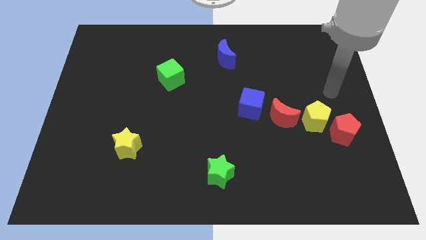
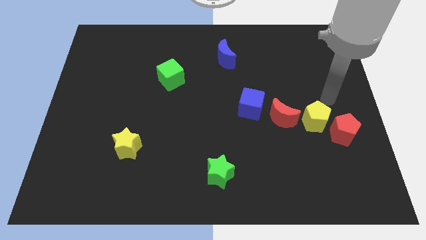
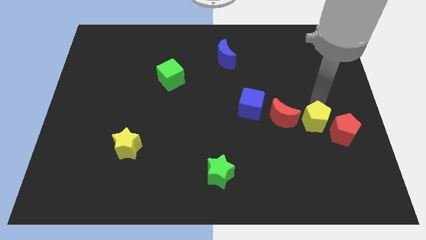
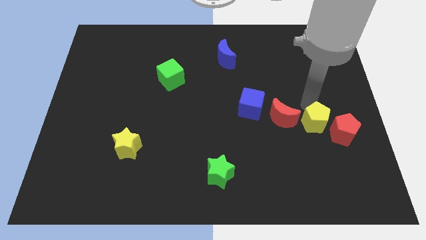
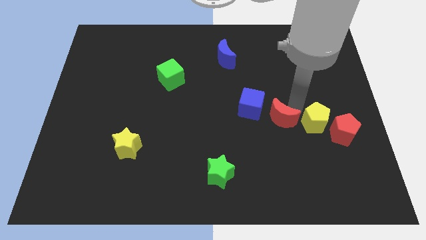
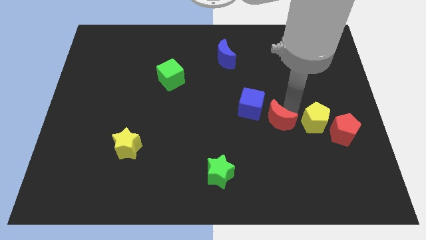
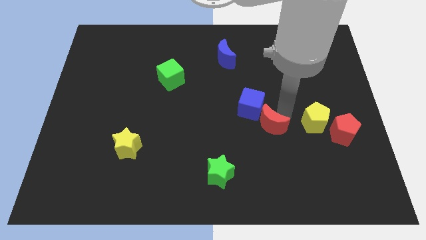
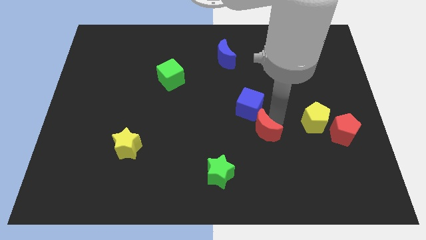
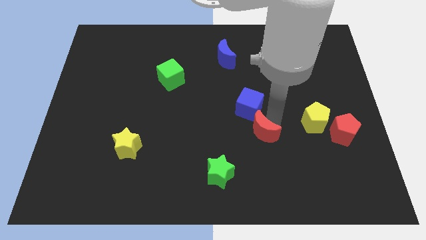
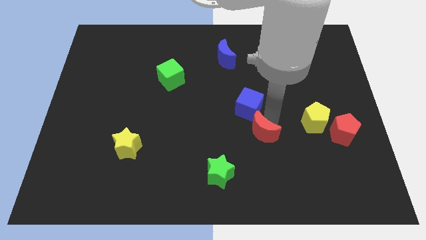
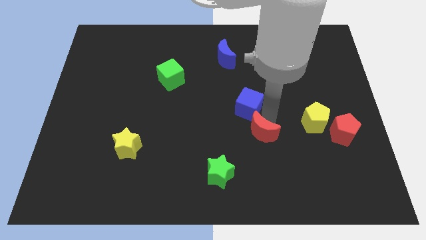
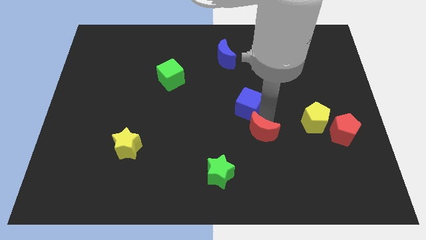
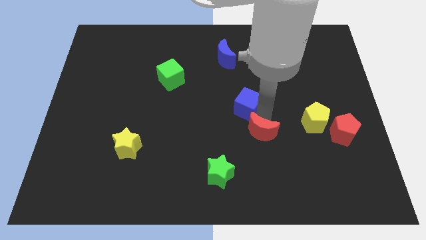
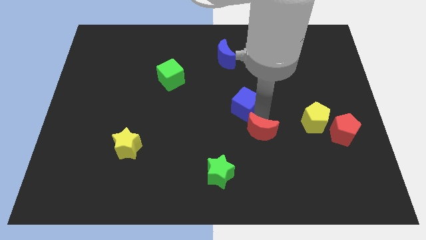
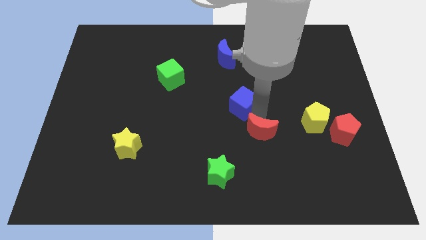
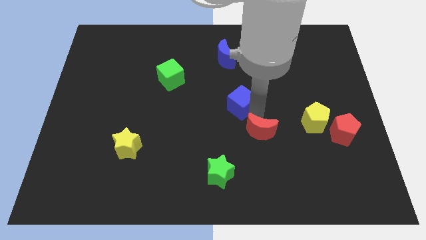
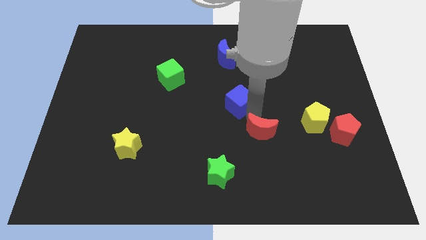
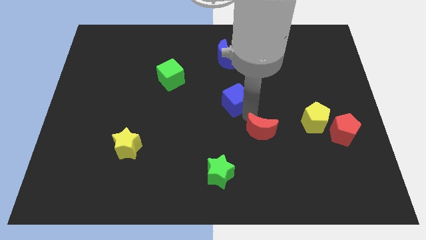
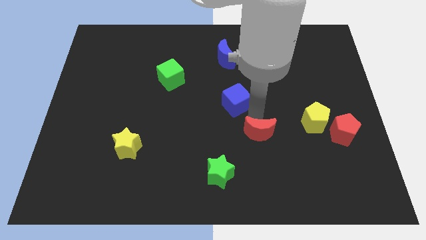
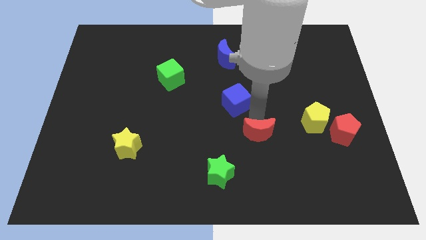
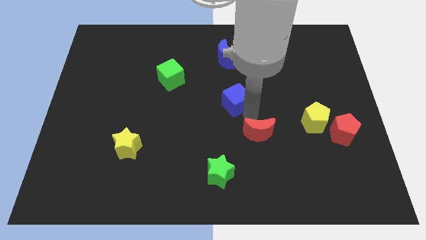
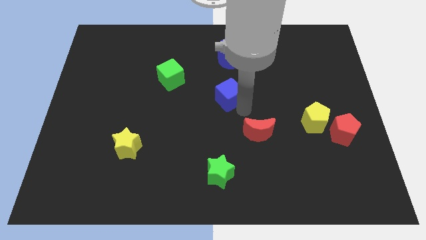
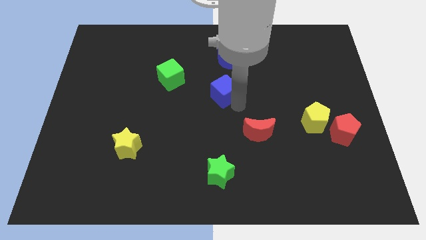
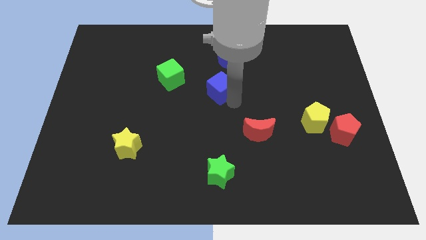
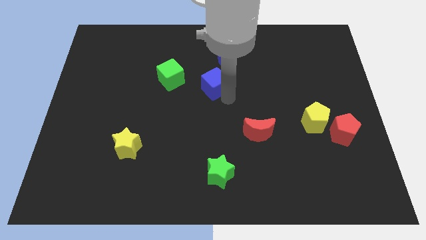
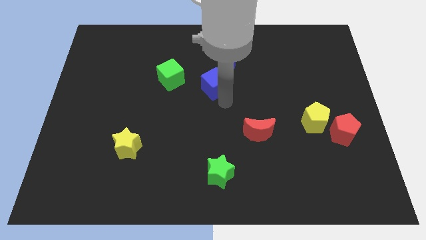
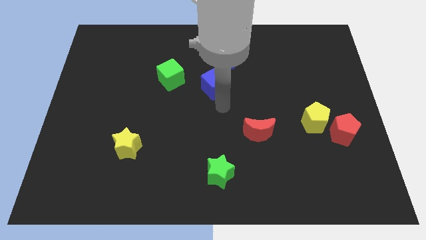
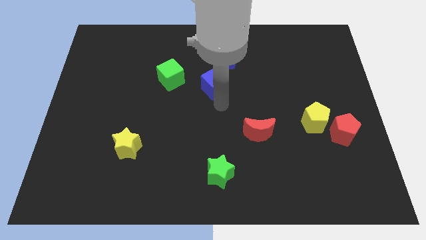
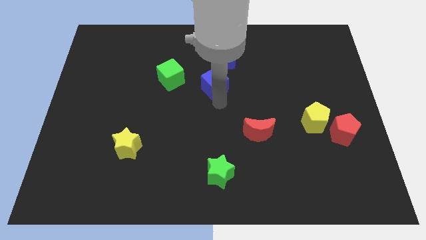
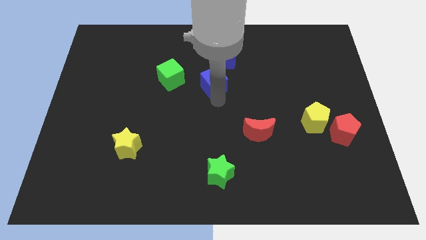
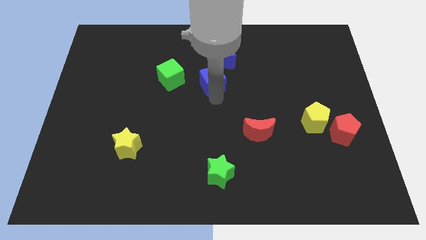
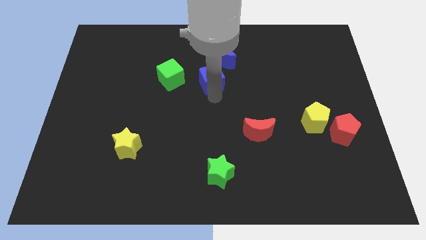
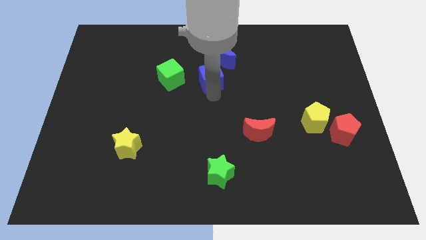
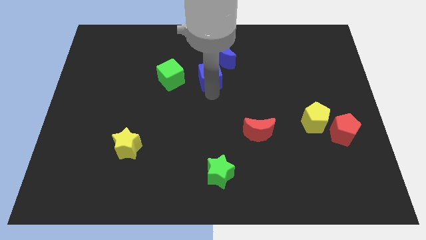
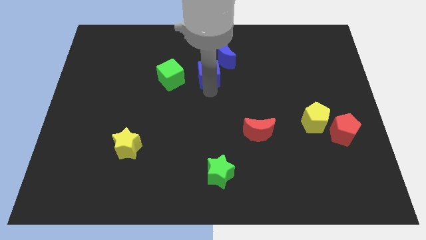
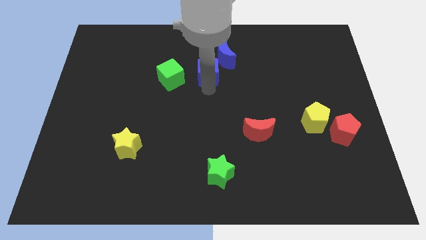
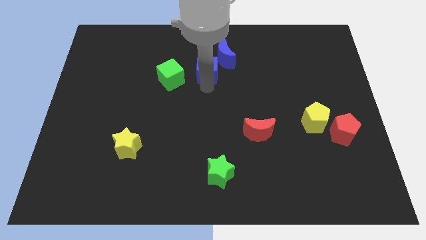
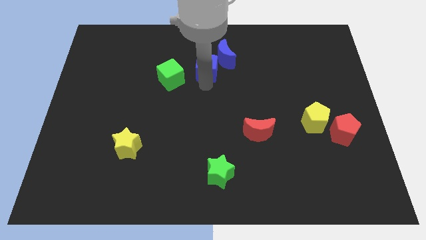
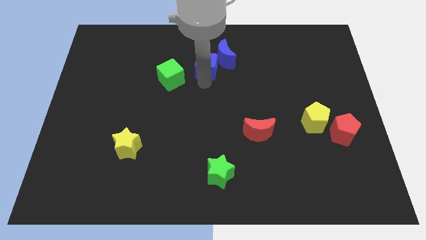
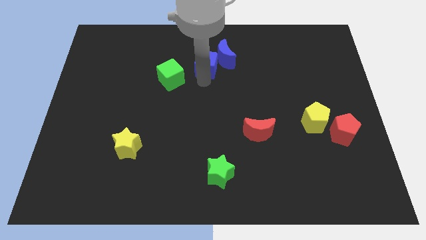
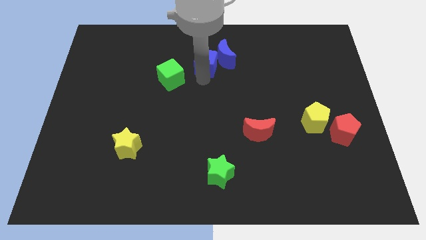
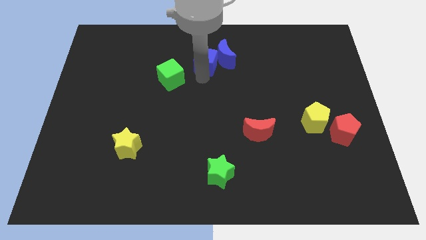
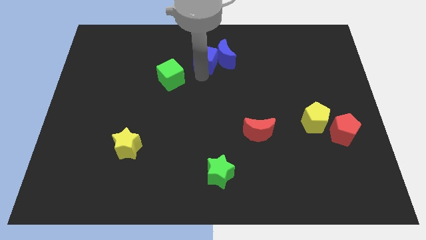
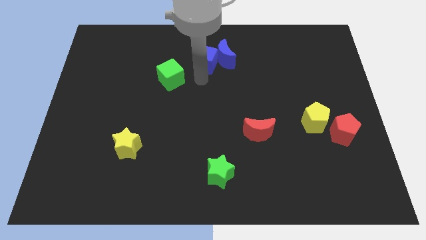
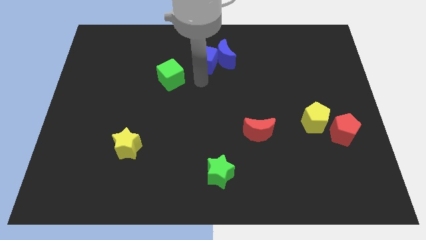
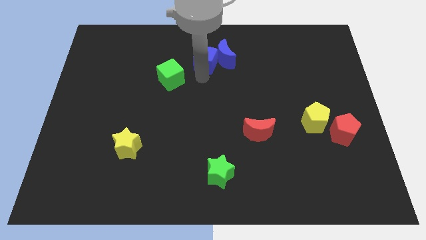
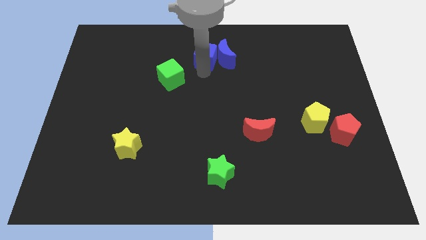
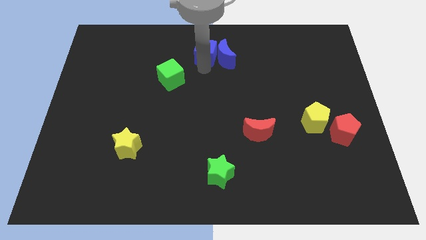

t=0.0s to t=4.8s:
push the blue cube to the towards your base

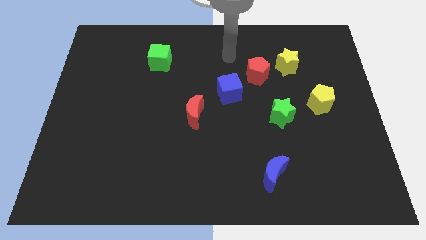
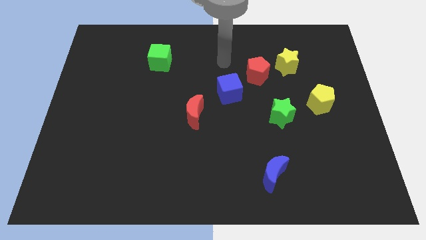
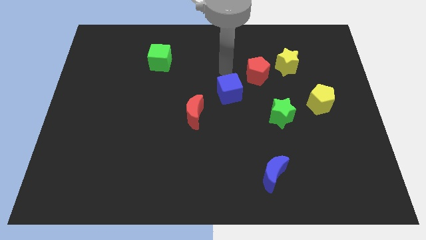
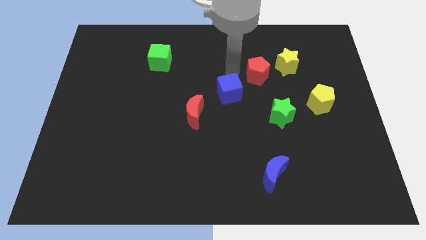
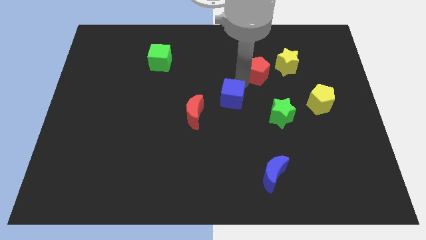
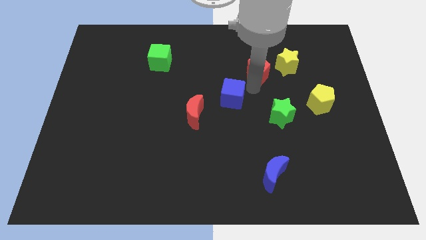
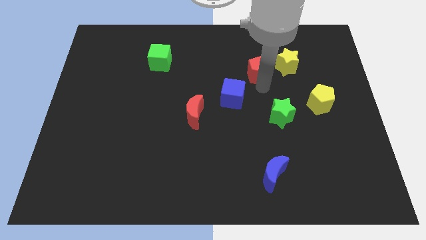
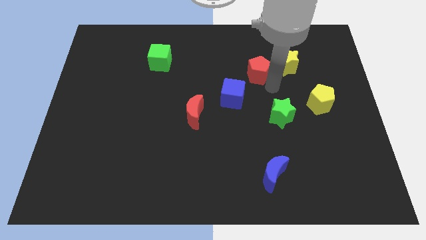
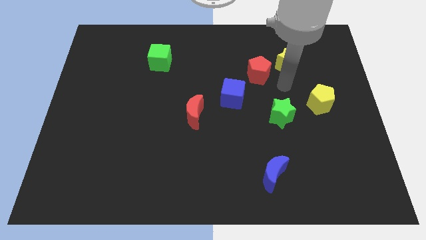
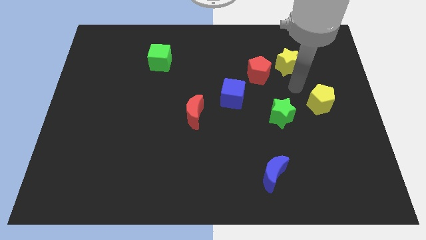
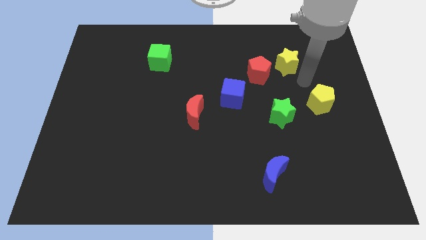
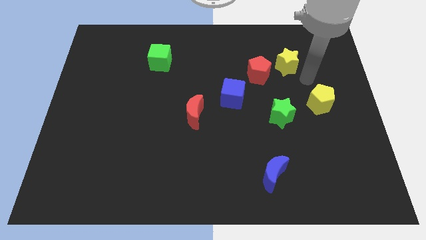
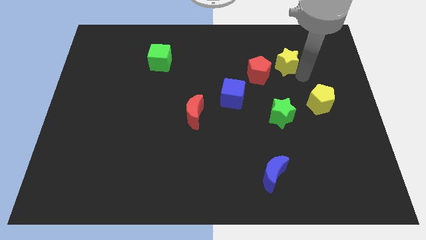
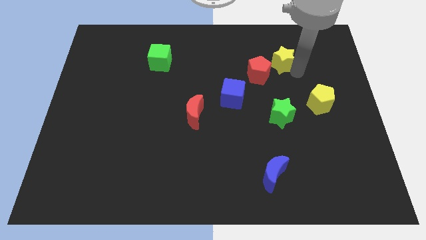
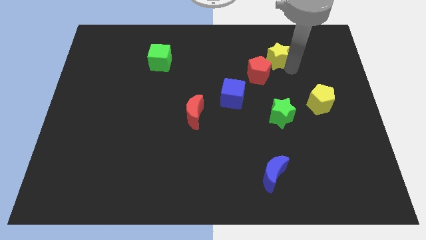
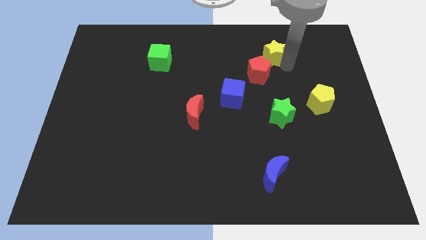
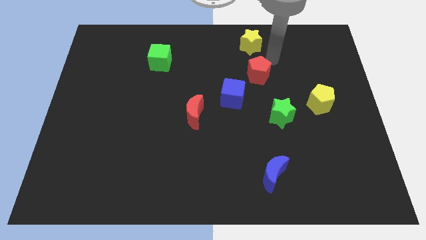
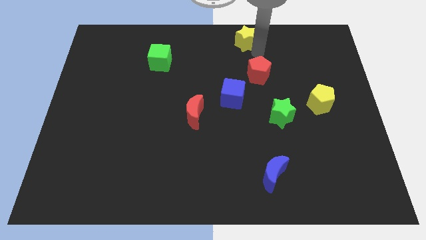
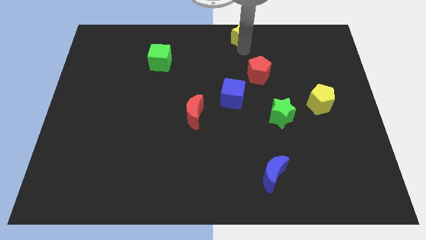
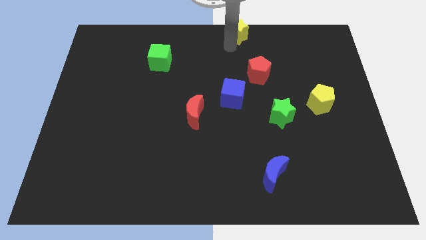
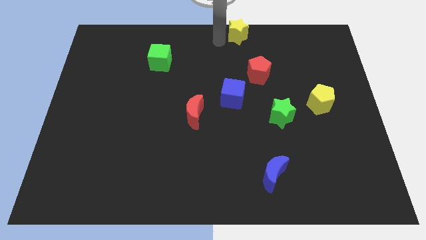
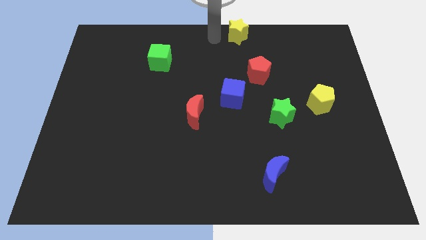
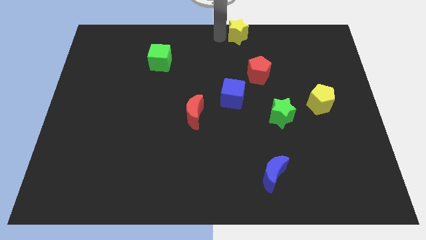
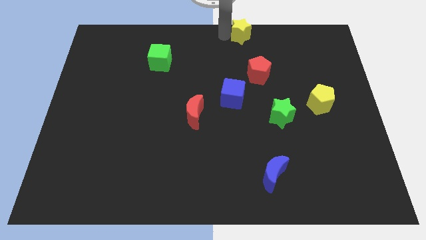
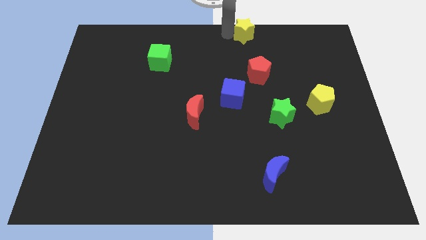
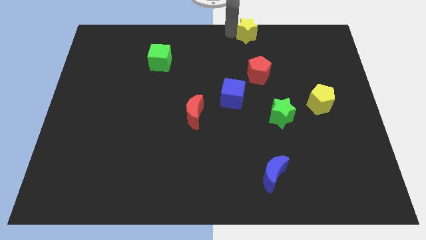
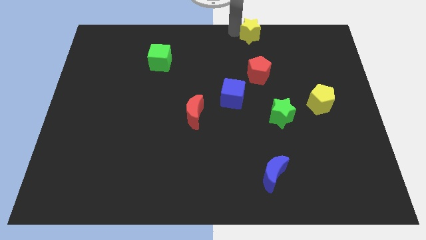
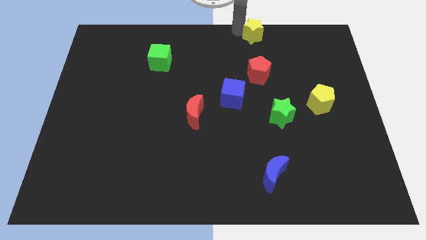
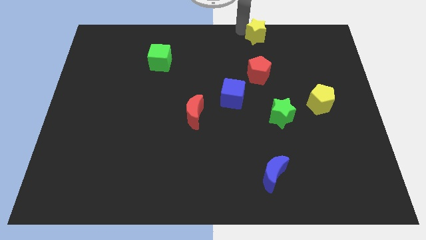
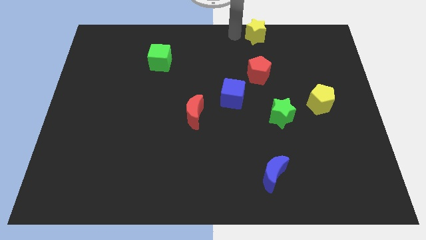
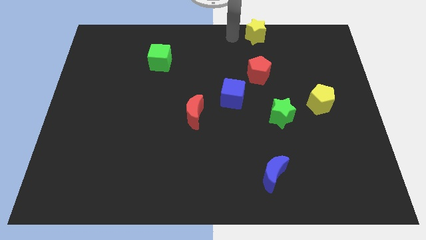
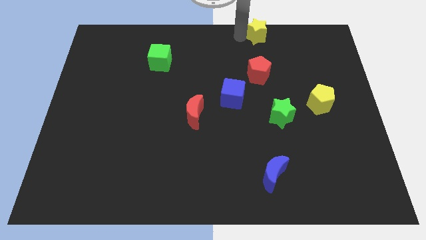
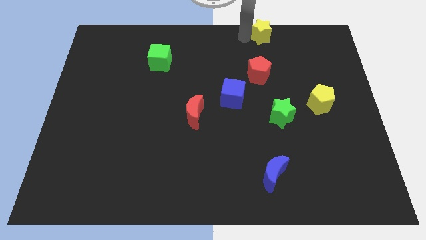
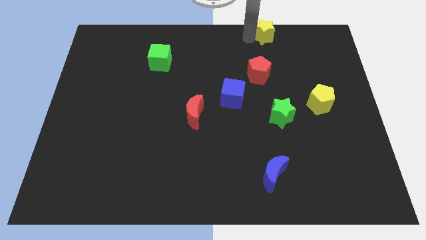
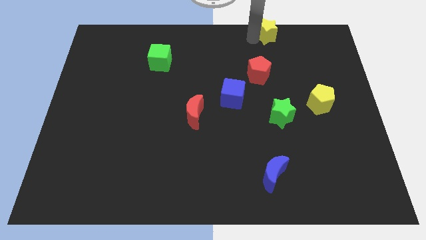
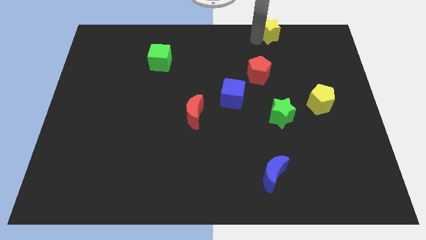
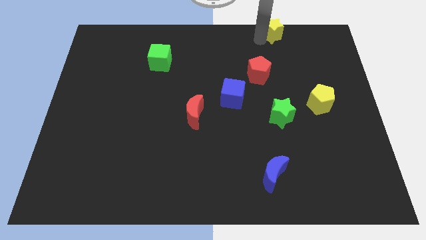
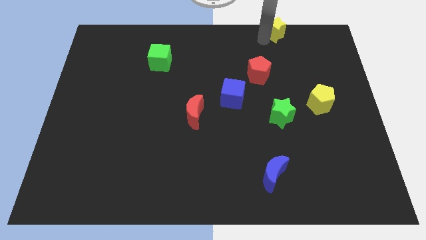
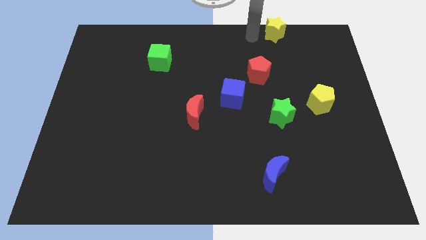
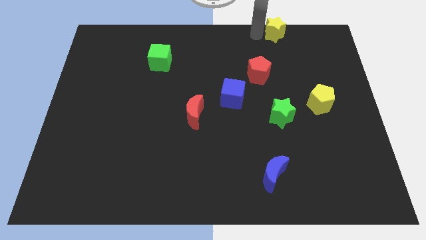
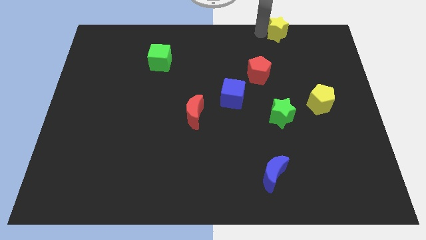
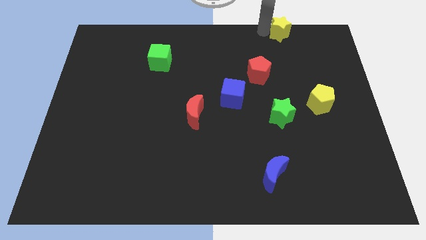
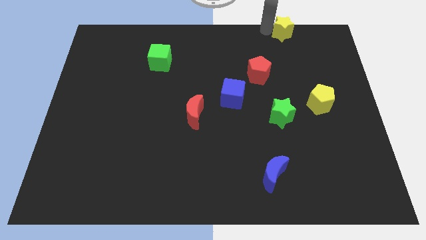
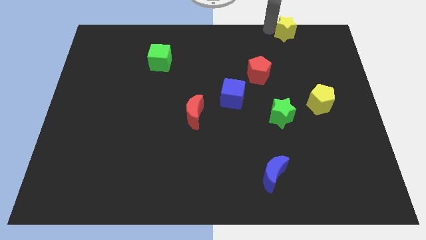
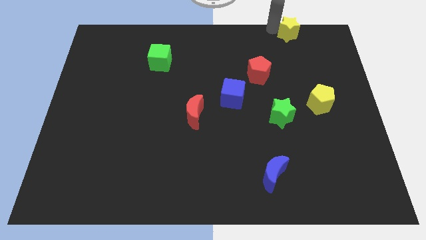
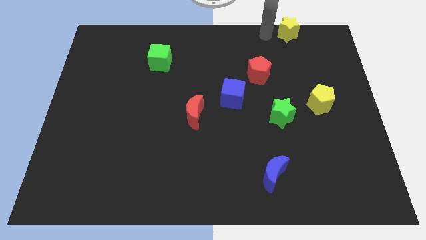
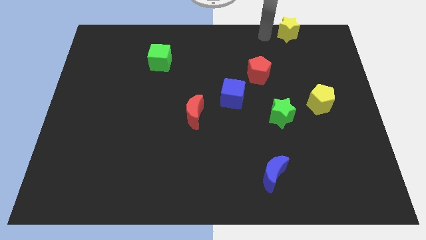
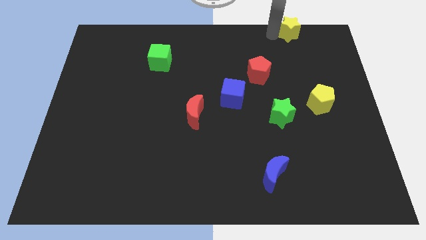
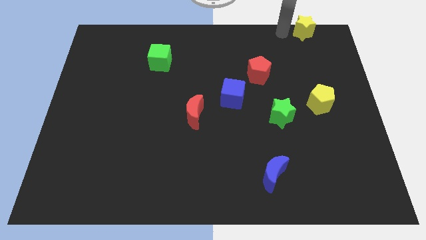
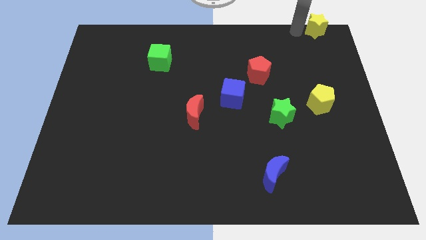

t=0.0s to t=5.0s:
push the yellow star to the upper right corner
